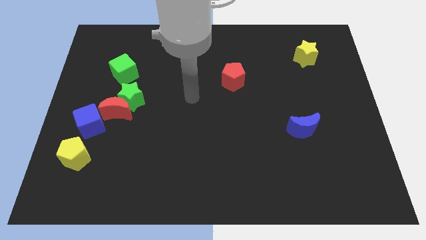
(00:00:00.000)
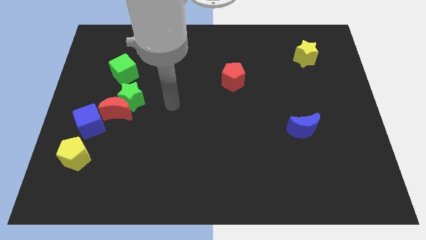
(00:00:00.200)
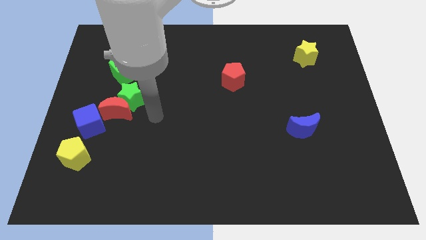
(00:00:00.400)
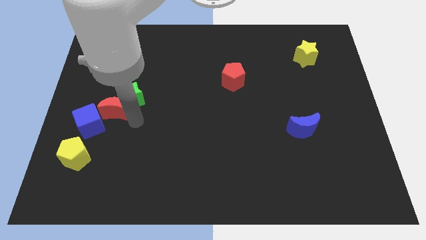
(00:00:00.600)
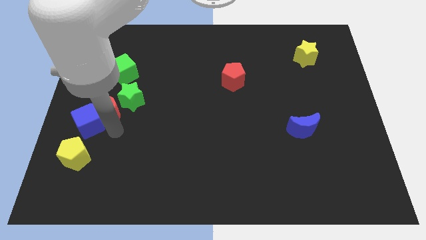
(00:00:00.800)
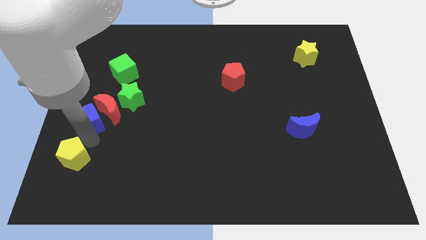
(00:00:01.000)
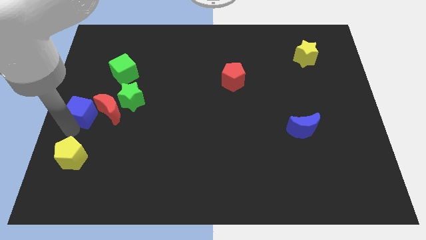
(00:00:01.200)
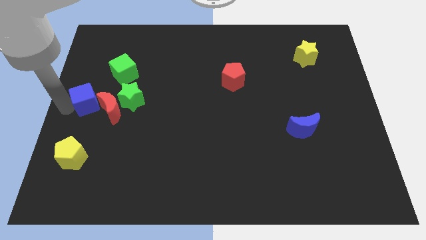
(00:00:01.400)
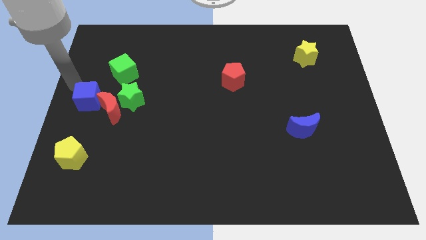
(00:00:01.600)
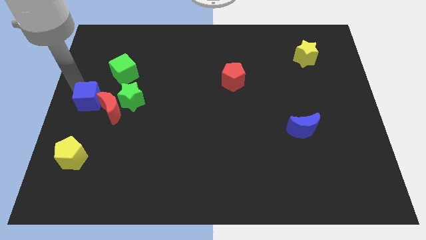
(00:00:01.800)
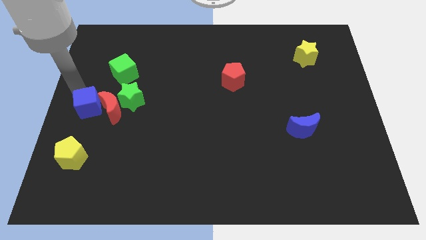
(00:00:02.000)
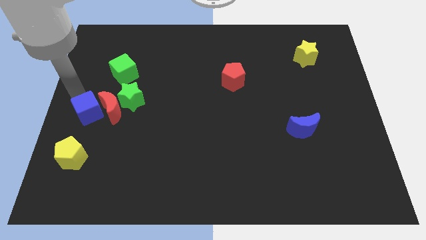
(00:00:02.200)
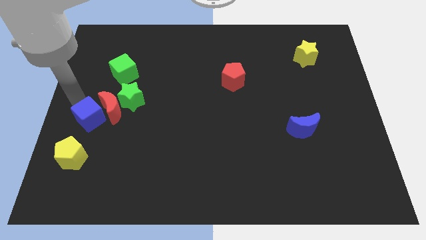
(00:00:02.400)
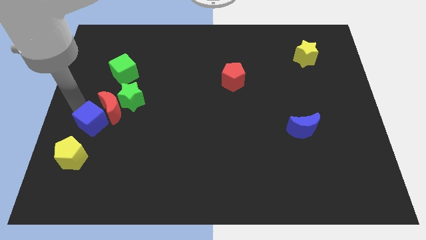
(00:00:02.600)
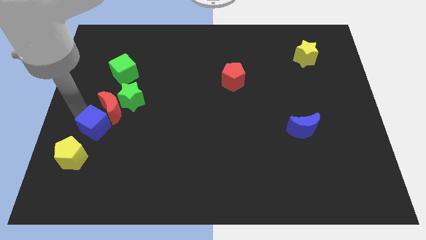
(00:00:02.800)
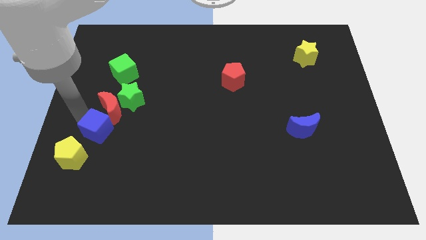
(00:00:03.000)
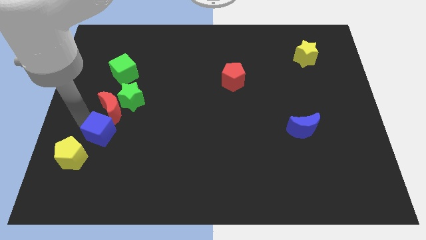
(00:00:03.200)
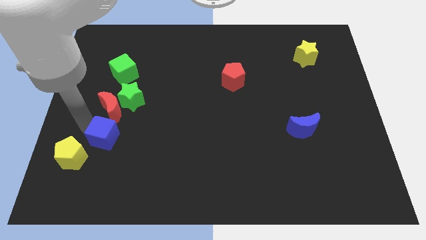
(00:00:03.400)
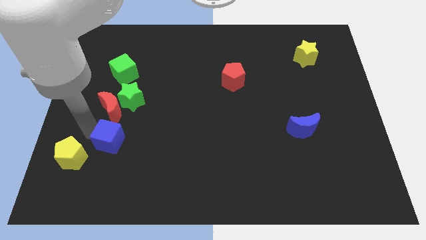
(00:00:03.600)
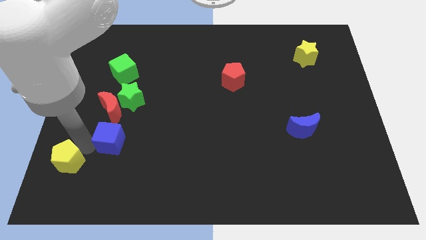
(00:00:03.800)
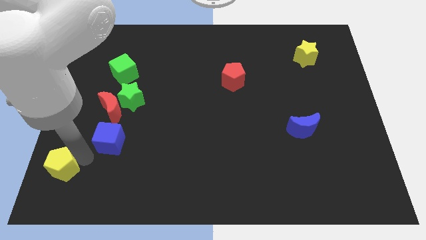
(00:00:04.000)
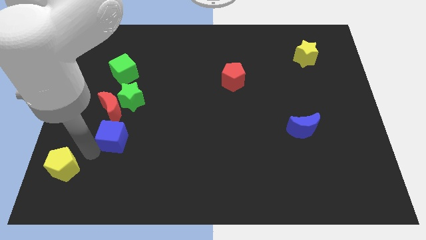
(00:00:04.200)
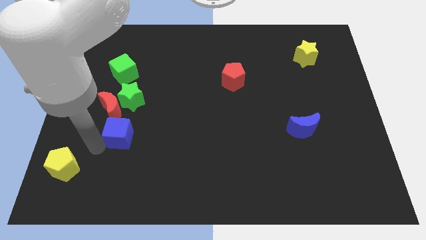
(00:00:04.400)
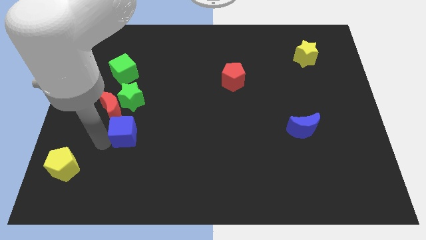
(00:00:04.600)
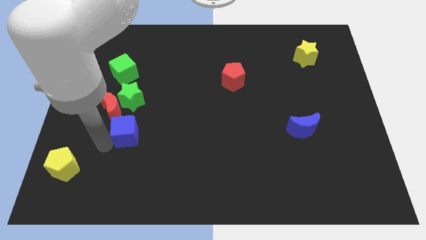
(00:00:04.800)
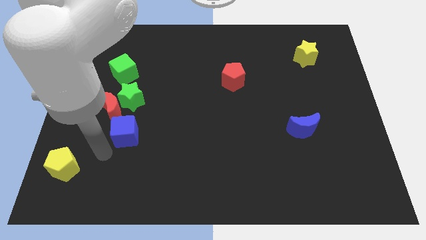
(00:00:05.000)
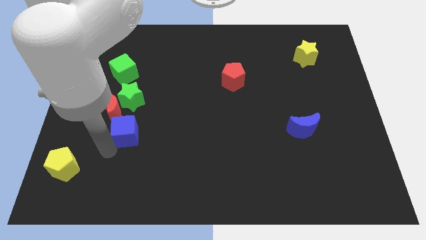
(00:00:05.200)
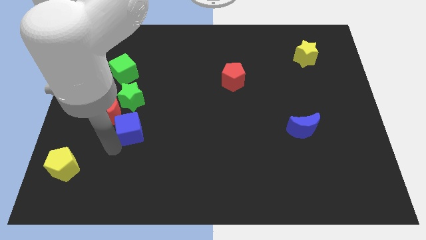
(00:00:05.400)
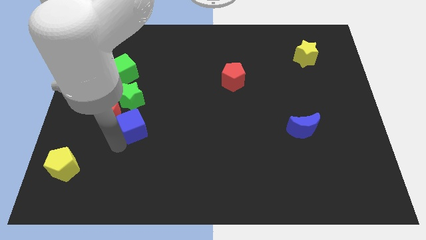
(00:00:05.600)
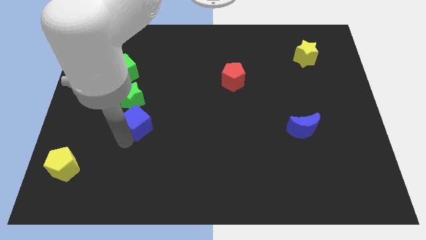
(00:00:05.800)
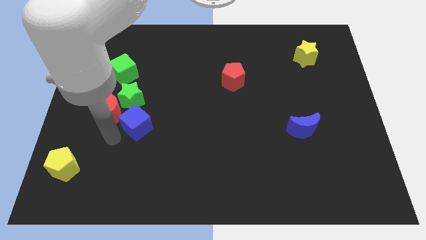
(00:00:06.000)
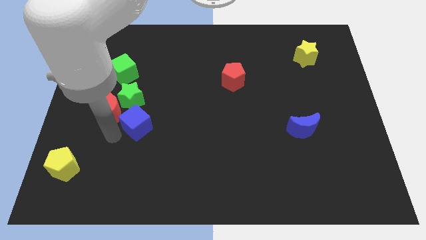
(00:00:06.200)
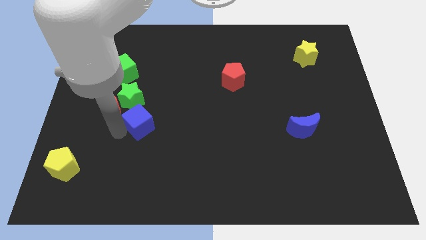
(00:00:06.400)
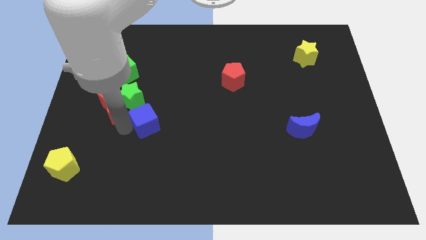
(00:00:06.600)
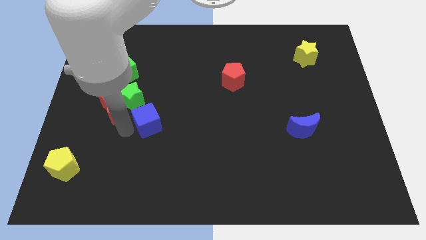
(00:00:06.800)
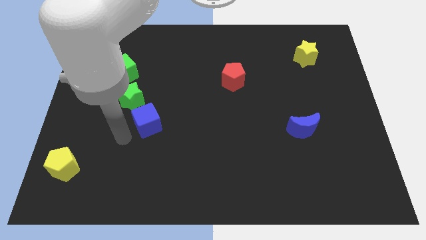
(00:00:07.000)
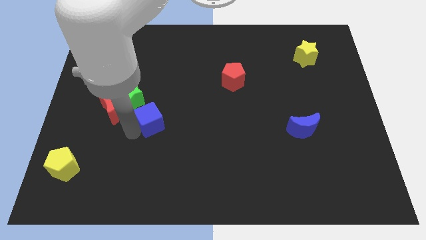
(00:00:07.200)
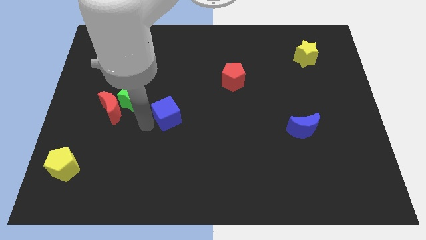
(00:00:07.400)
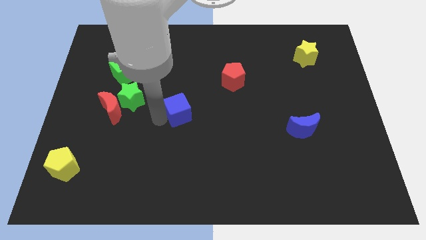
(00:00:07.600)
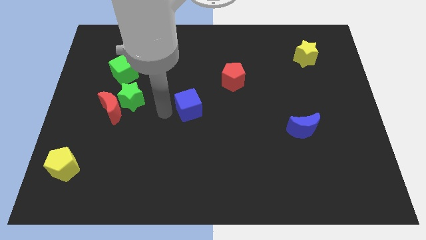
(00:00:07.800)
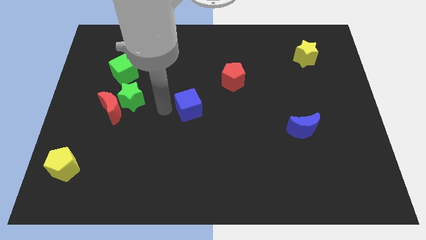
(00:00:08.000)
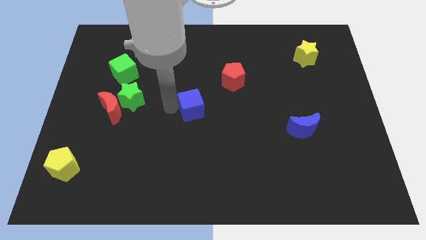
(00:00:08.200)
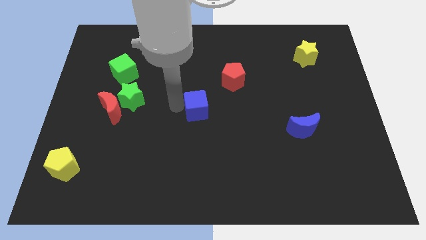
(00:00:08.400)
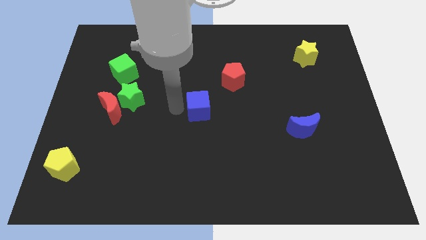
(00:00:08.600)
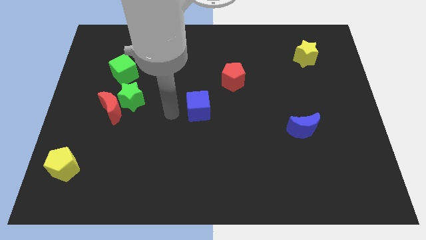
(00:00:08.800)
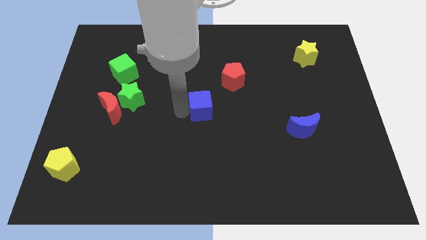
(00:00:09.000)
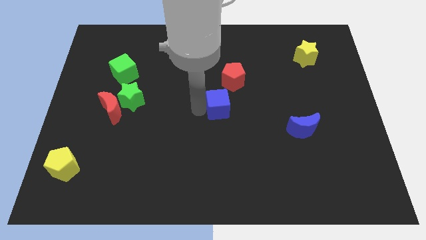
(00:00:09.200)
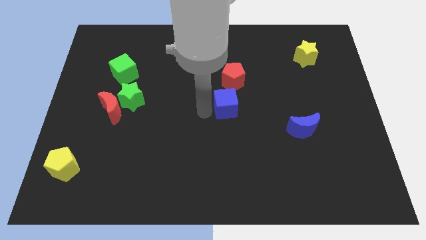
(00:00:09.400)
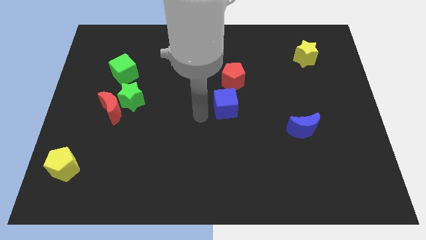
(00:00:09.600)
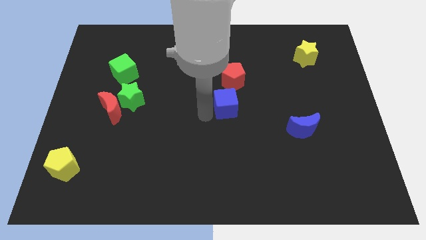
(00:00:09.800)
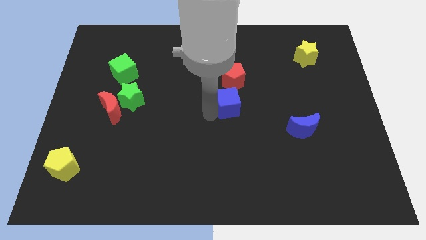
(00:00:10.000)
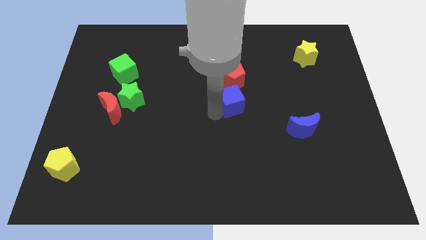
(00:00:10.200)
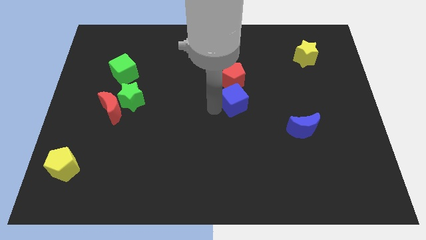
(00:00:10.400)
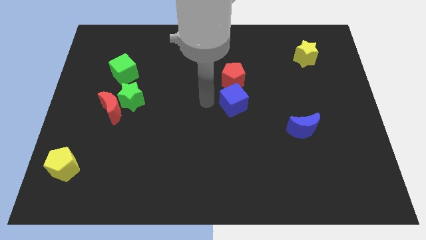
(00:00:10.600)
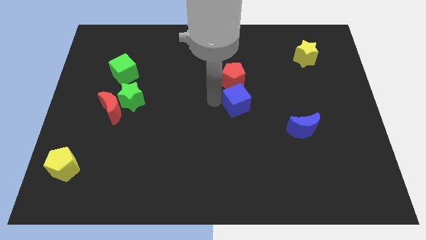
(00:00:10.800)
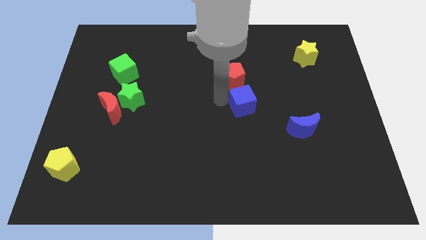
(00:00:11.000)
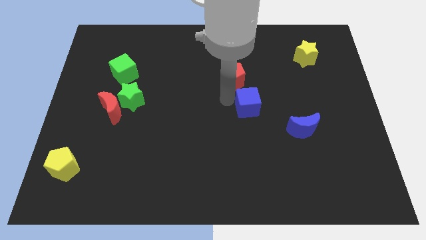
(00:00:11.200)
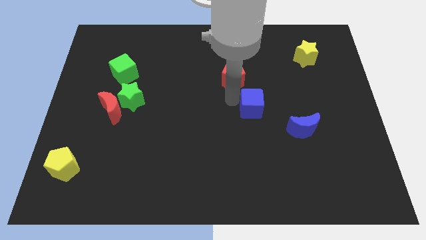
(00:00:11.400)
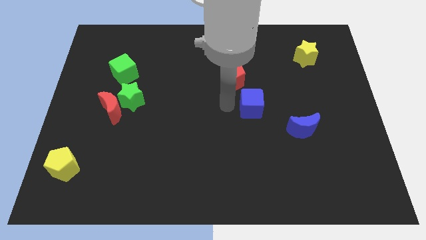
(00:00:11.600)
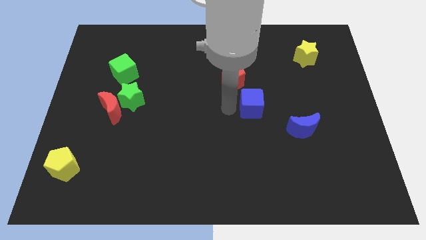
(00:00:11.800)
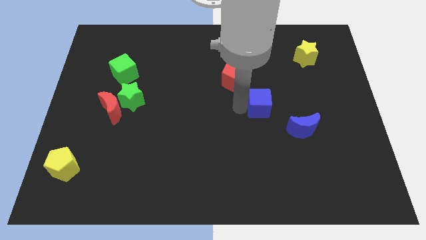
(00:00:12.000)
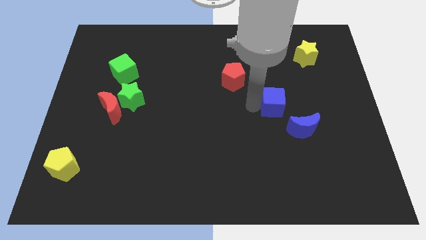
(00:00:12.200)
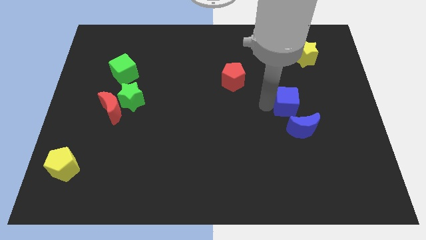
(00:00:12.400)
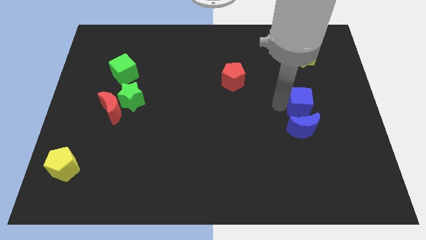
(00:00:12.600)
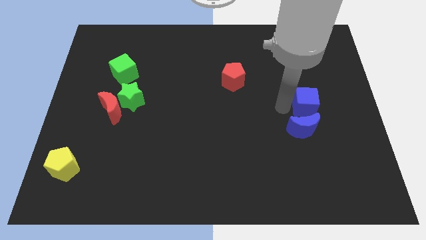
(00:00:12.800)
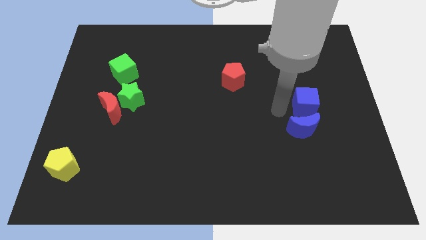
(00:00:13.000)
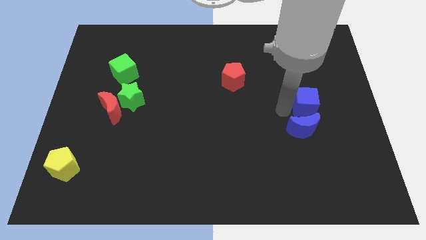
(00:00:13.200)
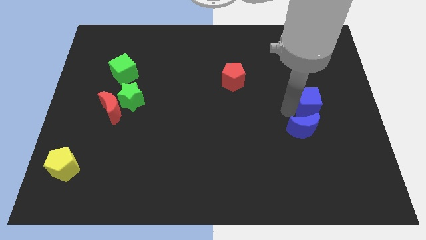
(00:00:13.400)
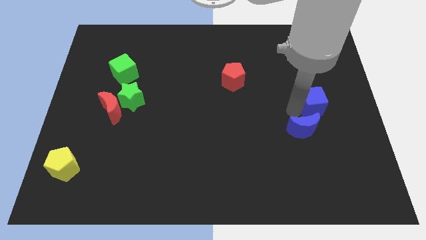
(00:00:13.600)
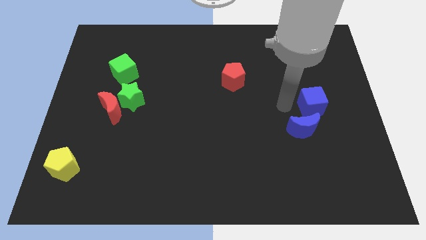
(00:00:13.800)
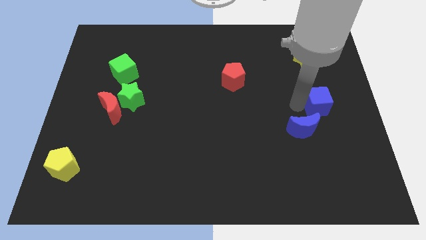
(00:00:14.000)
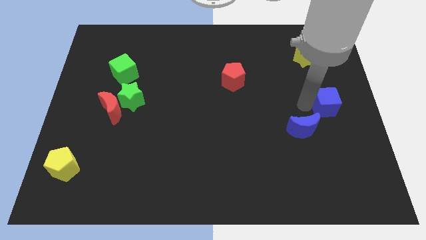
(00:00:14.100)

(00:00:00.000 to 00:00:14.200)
push the blue cube to the center right

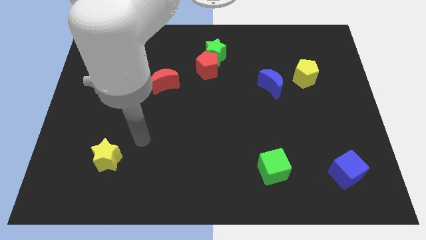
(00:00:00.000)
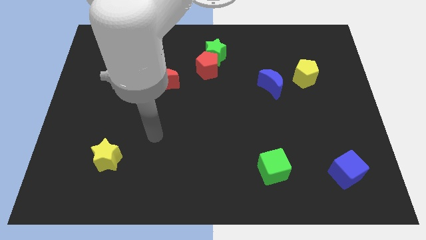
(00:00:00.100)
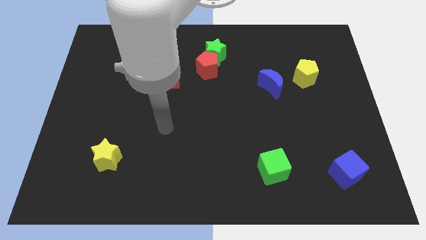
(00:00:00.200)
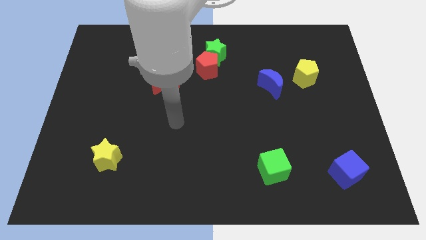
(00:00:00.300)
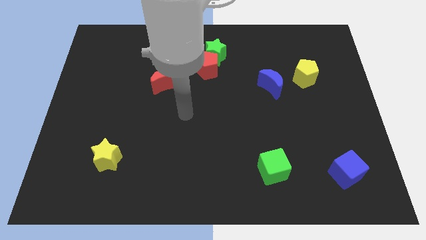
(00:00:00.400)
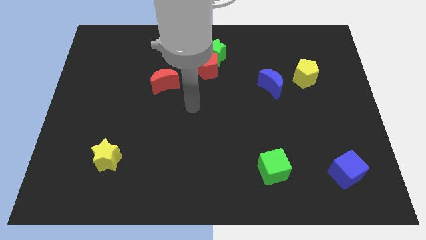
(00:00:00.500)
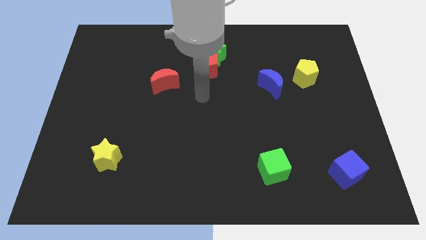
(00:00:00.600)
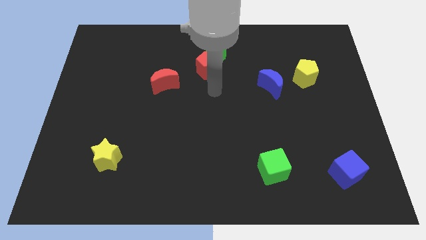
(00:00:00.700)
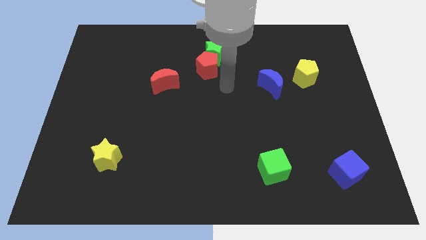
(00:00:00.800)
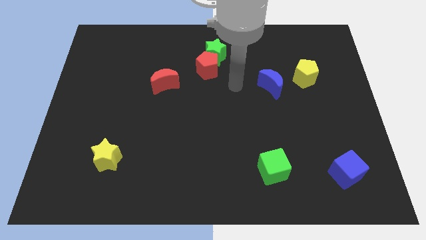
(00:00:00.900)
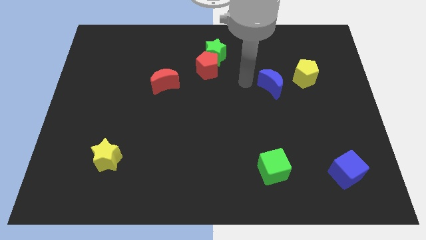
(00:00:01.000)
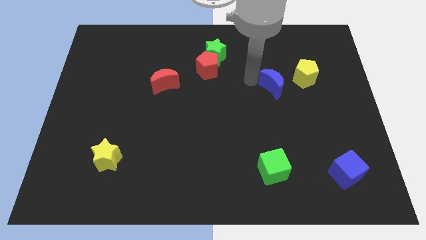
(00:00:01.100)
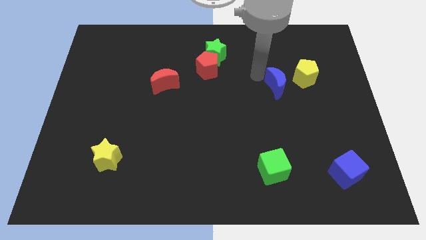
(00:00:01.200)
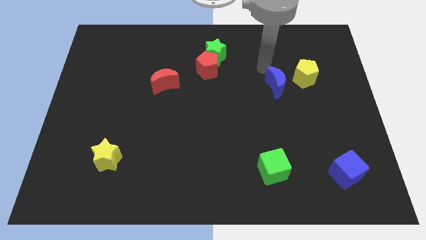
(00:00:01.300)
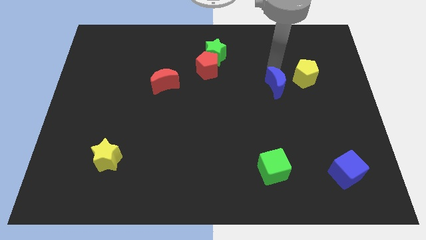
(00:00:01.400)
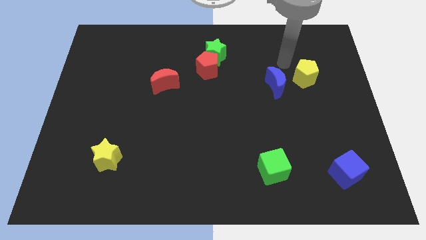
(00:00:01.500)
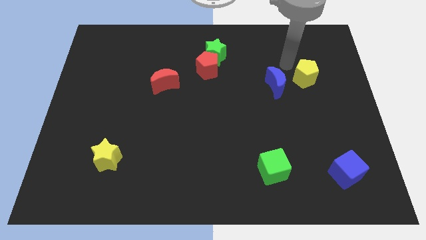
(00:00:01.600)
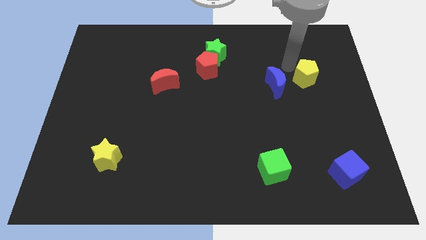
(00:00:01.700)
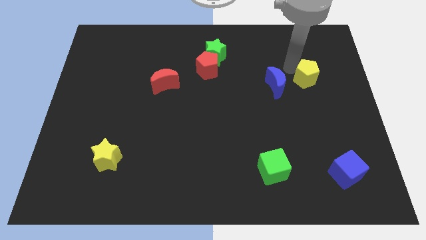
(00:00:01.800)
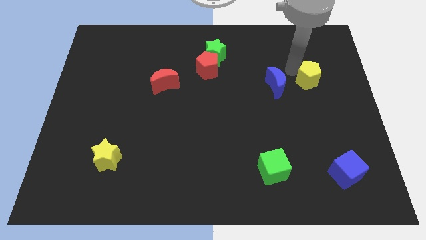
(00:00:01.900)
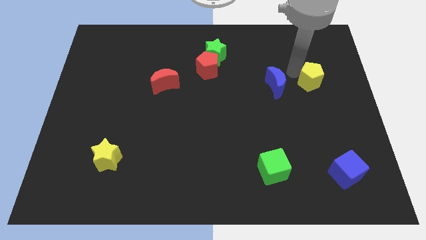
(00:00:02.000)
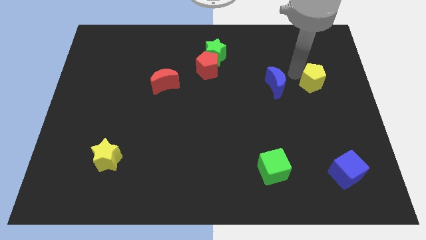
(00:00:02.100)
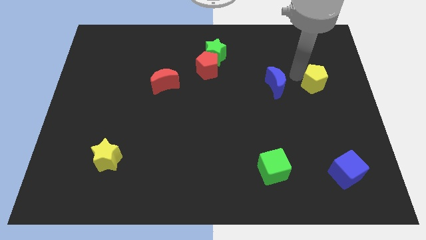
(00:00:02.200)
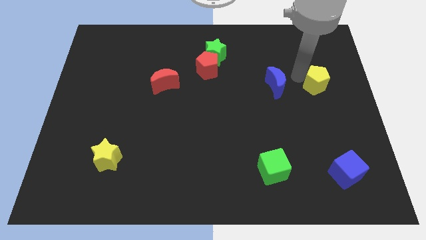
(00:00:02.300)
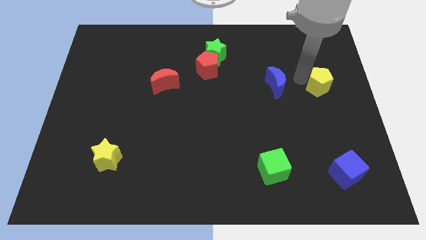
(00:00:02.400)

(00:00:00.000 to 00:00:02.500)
slide the yellow pentagon to the right side
